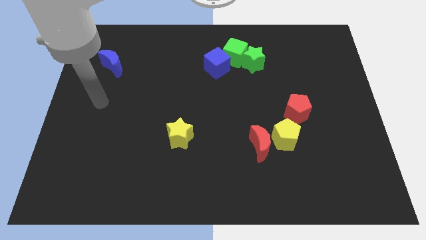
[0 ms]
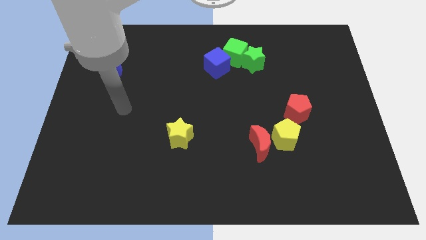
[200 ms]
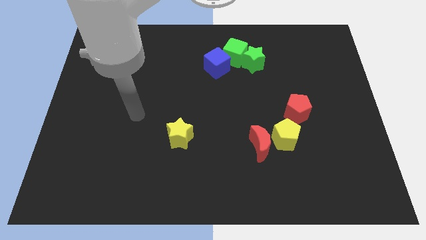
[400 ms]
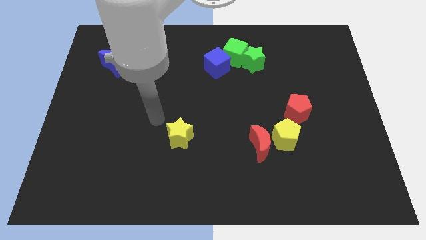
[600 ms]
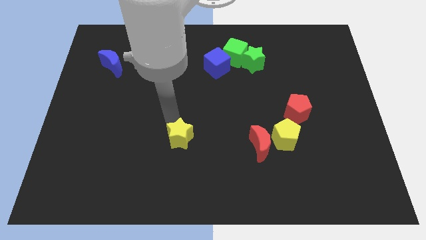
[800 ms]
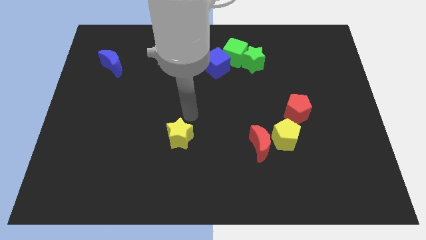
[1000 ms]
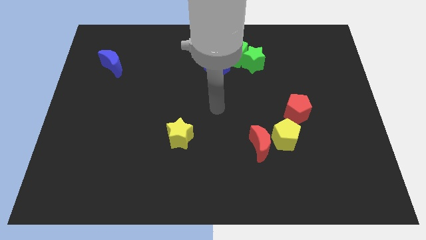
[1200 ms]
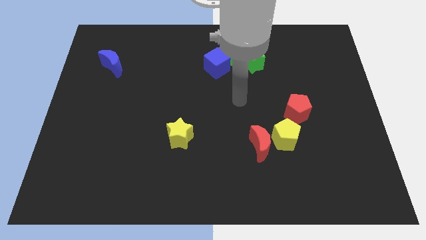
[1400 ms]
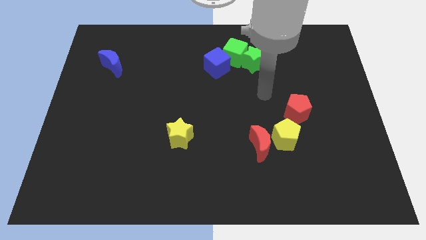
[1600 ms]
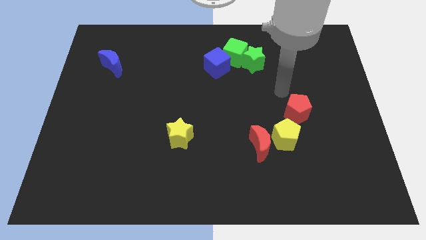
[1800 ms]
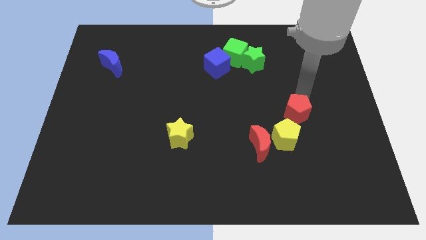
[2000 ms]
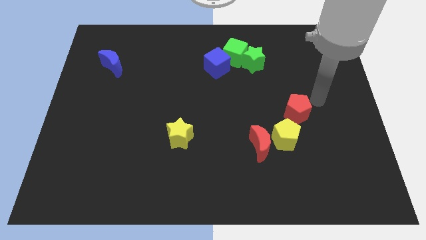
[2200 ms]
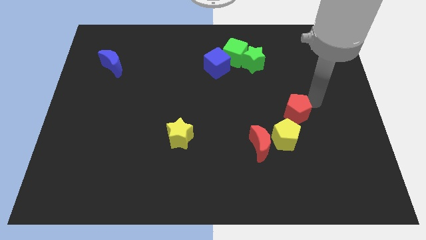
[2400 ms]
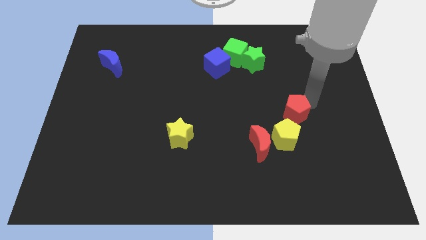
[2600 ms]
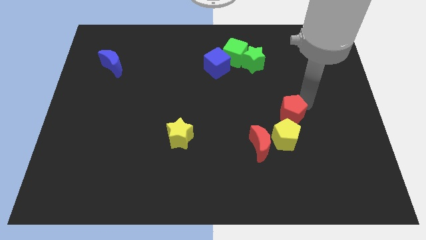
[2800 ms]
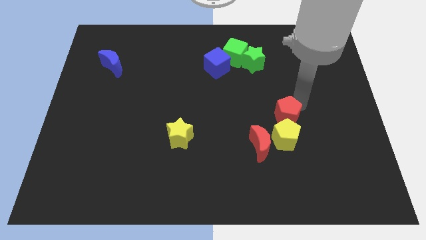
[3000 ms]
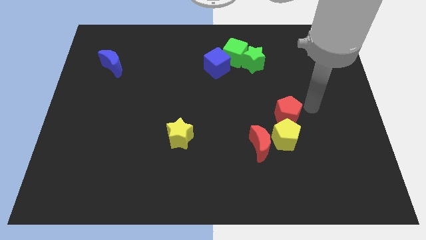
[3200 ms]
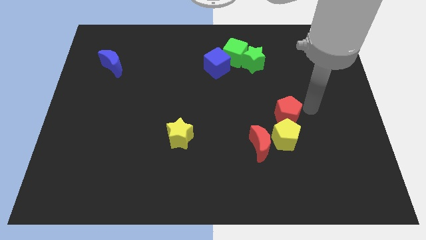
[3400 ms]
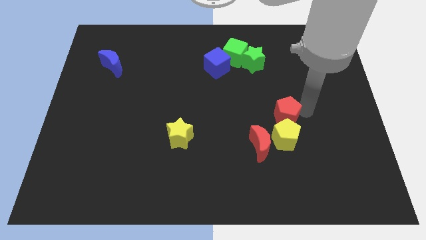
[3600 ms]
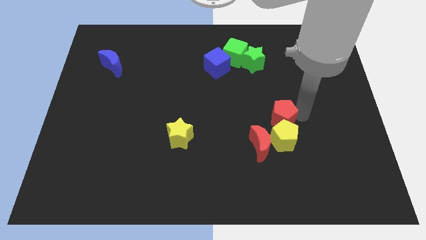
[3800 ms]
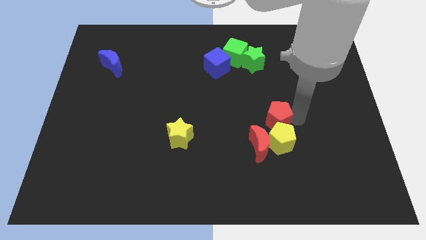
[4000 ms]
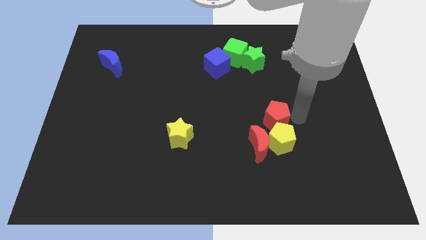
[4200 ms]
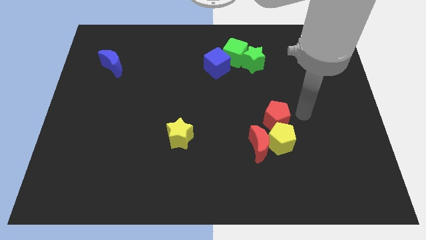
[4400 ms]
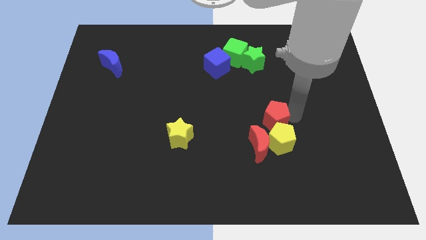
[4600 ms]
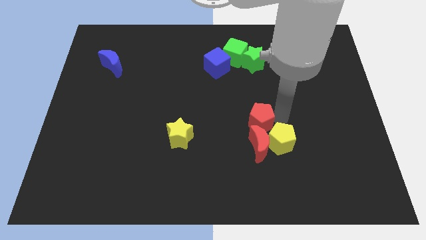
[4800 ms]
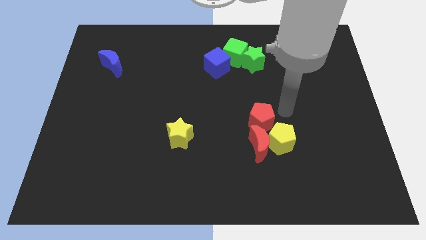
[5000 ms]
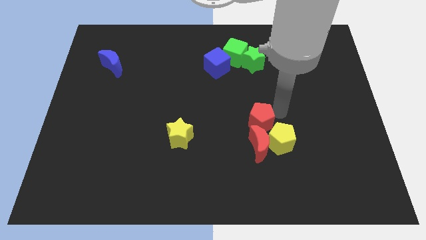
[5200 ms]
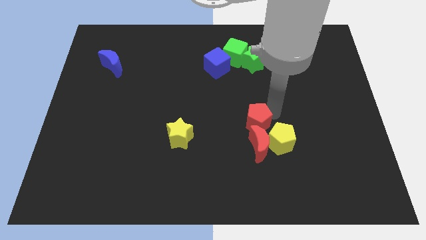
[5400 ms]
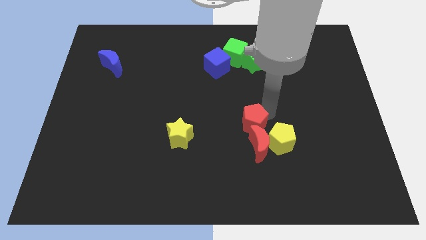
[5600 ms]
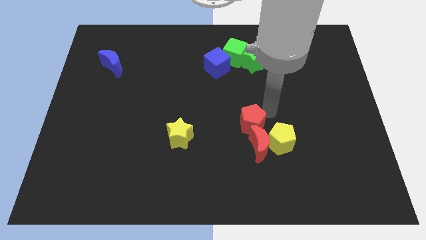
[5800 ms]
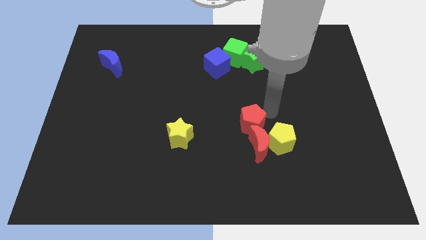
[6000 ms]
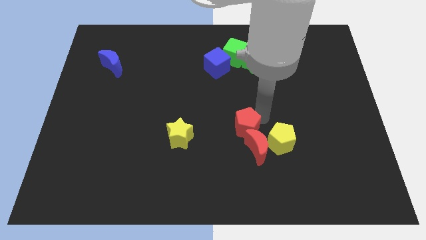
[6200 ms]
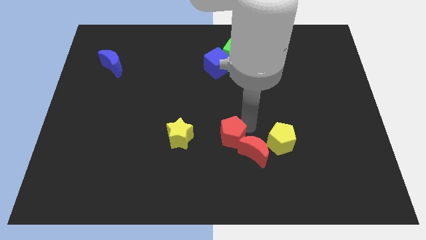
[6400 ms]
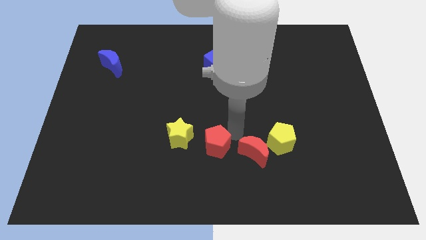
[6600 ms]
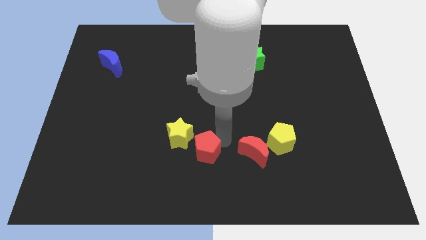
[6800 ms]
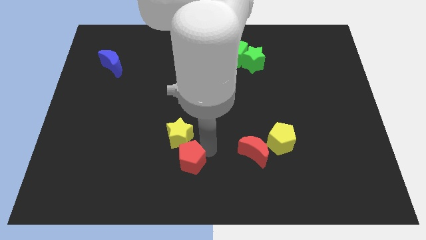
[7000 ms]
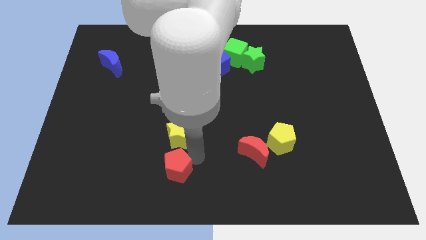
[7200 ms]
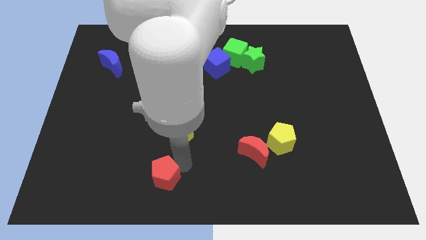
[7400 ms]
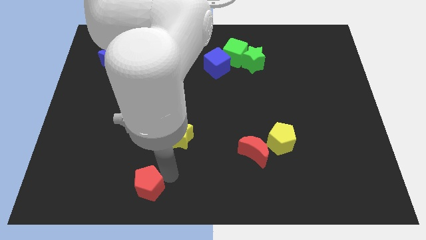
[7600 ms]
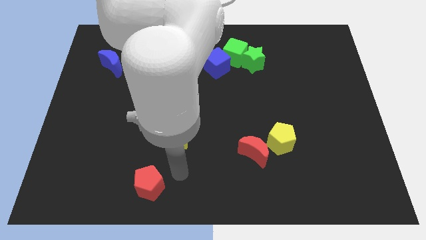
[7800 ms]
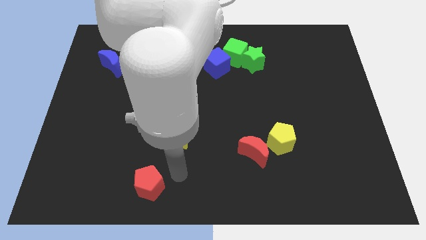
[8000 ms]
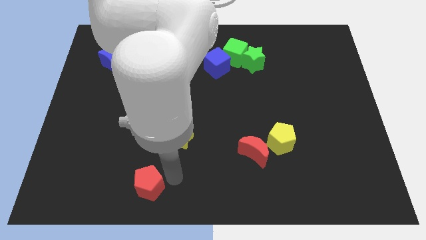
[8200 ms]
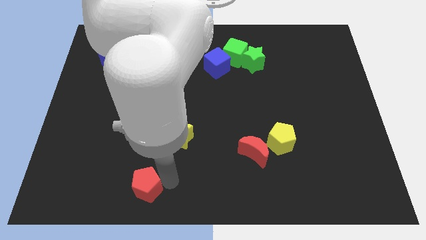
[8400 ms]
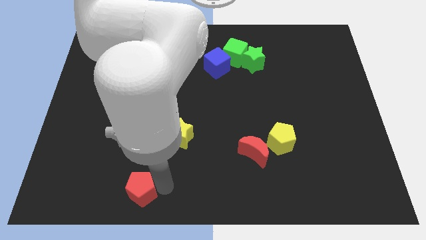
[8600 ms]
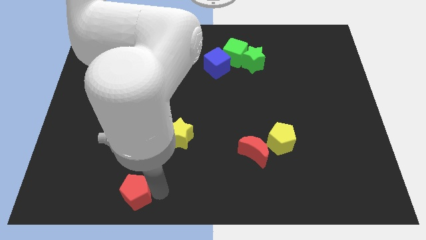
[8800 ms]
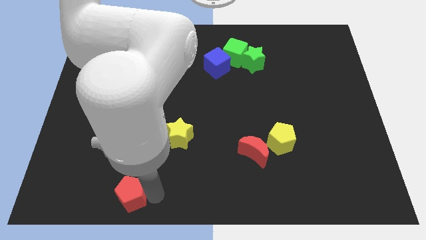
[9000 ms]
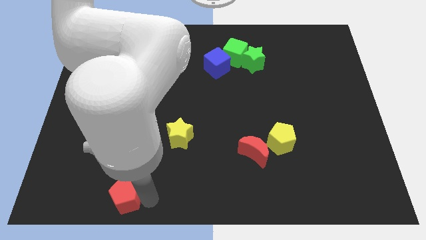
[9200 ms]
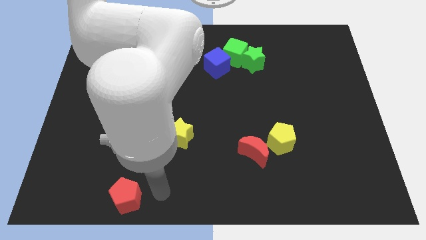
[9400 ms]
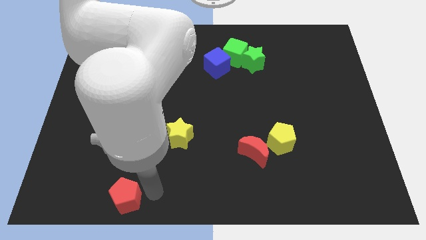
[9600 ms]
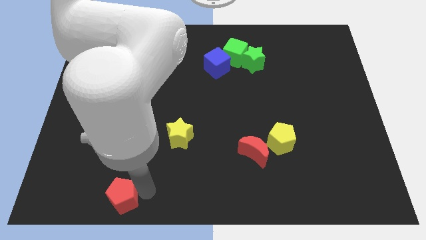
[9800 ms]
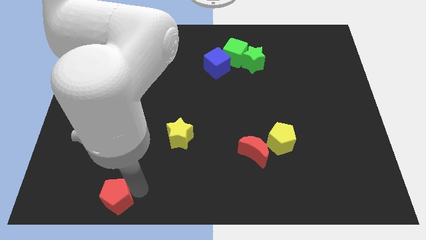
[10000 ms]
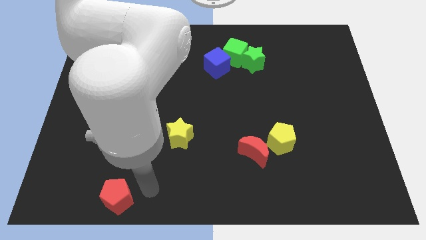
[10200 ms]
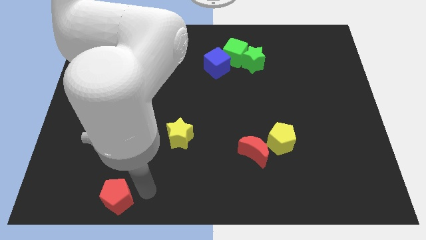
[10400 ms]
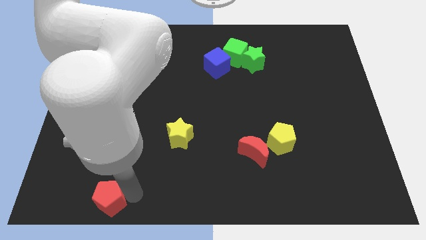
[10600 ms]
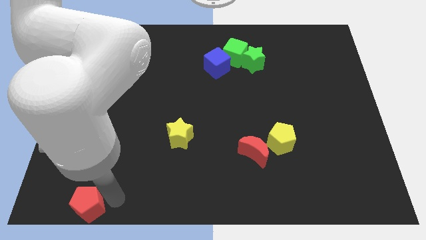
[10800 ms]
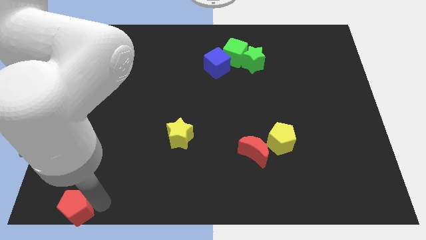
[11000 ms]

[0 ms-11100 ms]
move the red pentagon to the bottom left

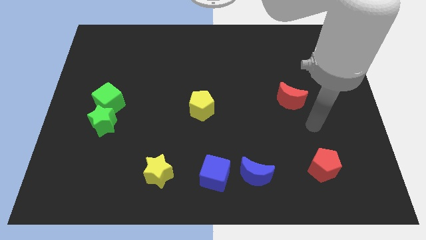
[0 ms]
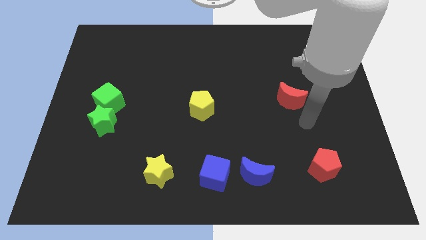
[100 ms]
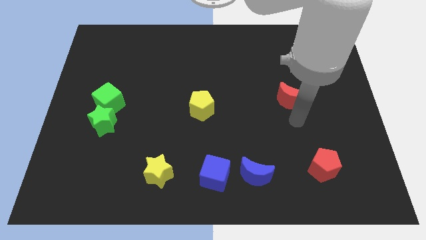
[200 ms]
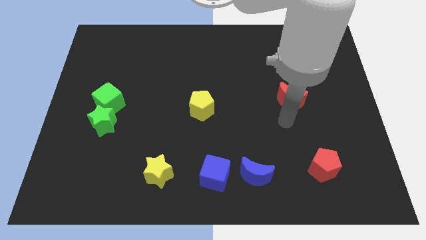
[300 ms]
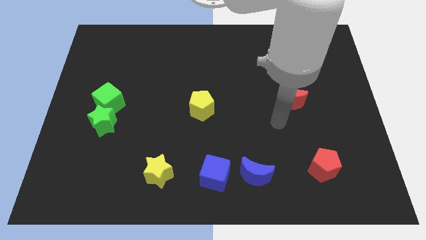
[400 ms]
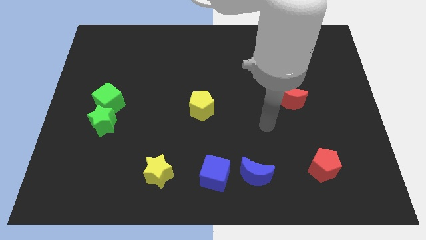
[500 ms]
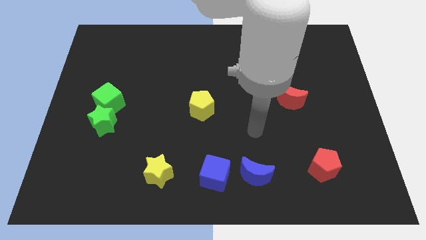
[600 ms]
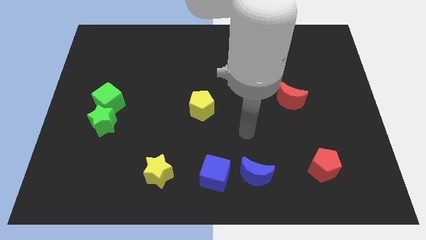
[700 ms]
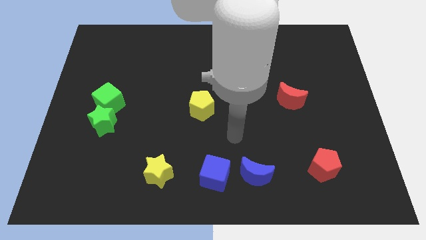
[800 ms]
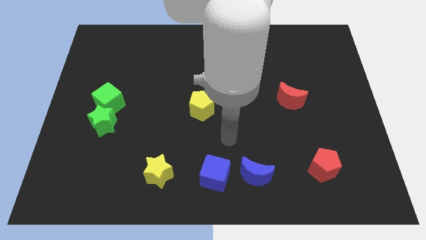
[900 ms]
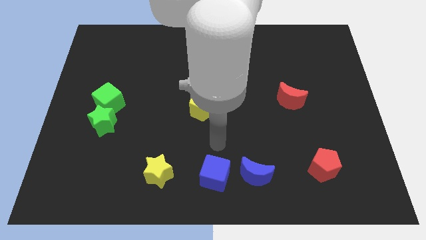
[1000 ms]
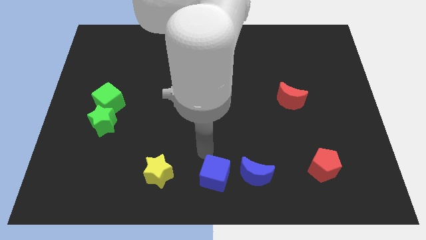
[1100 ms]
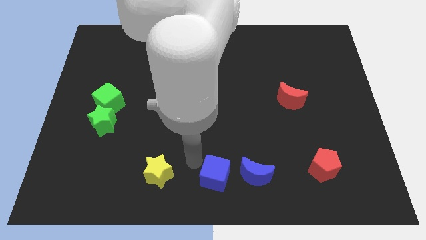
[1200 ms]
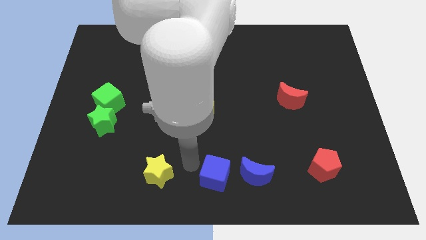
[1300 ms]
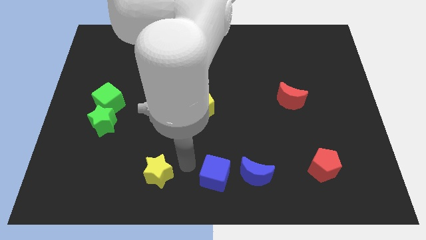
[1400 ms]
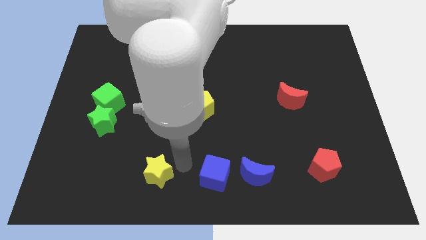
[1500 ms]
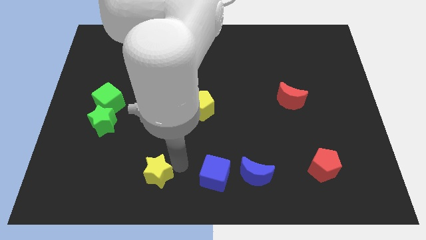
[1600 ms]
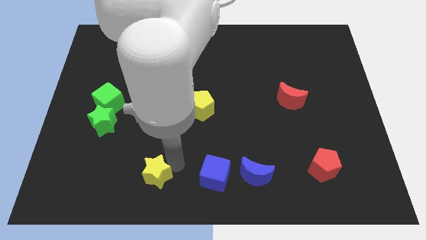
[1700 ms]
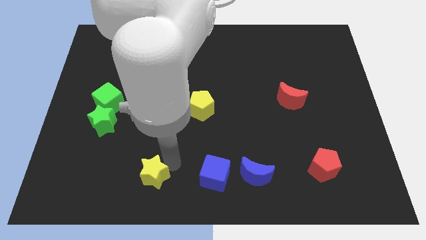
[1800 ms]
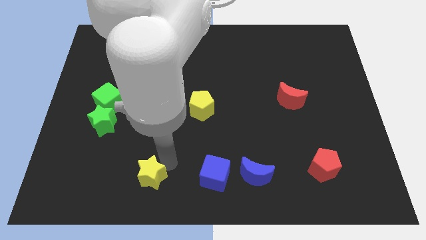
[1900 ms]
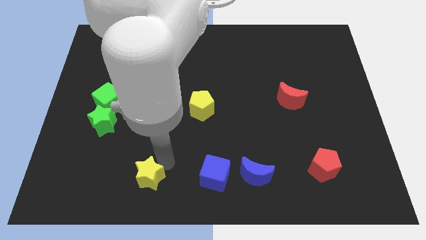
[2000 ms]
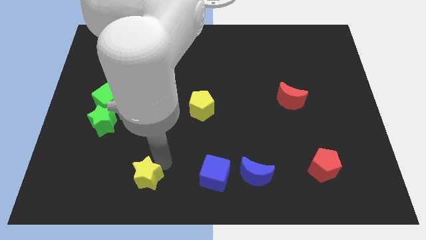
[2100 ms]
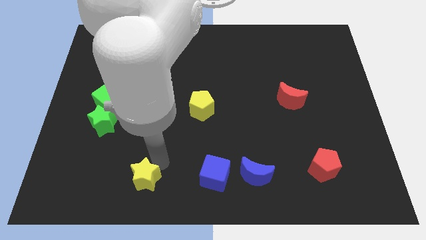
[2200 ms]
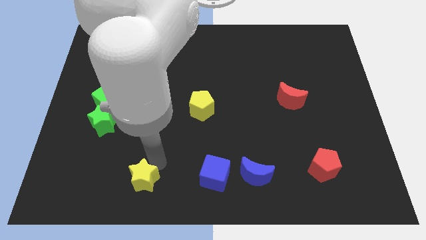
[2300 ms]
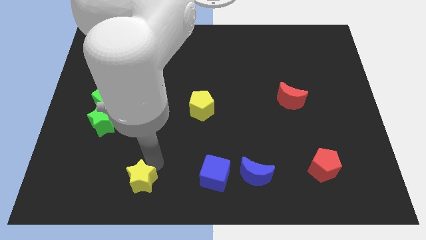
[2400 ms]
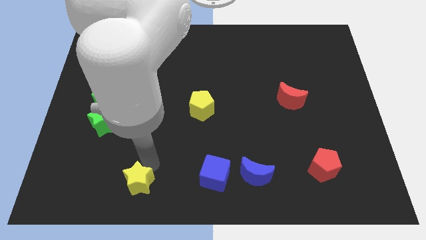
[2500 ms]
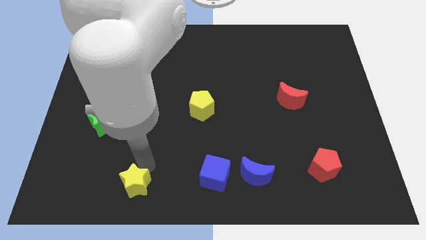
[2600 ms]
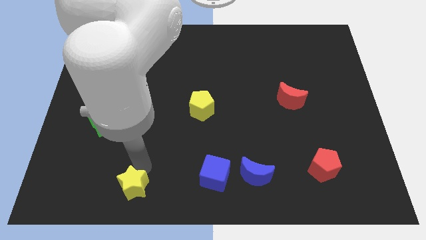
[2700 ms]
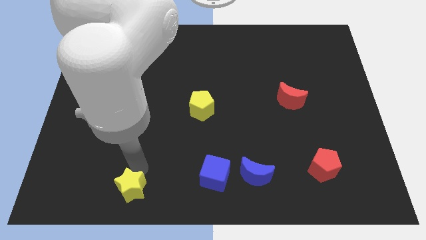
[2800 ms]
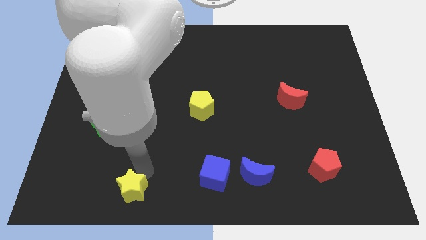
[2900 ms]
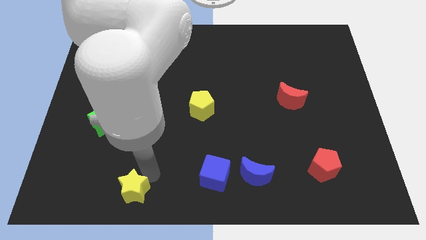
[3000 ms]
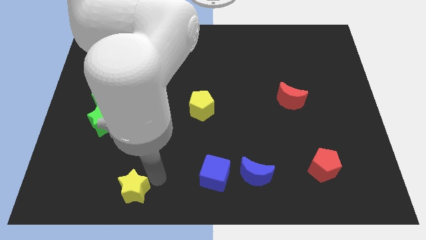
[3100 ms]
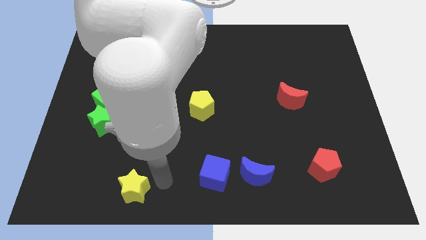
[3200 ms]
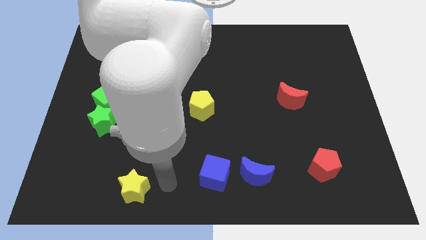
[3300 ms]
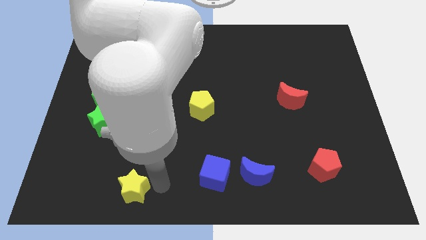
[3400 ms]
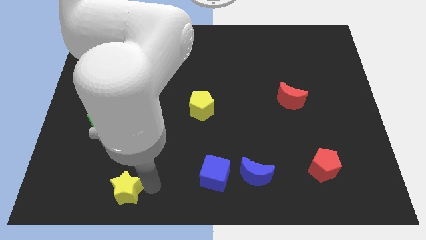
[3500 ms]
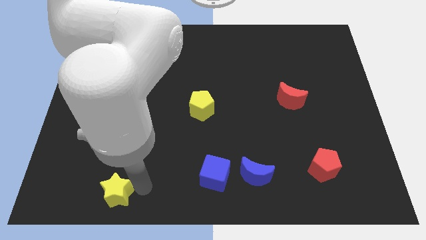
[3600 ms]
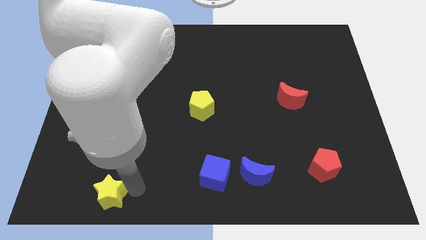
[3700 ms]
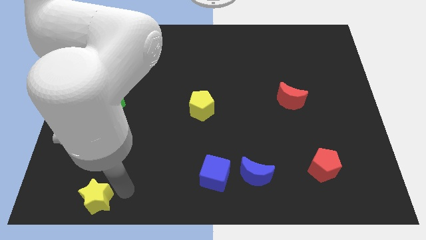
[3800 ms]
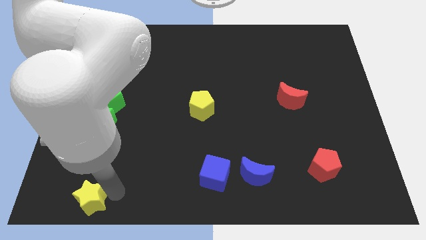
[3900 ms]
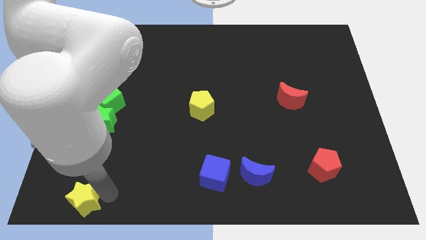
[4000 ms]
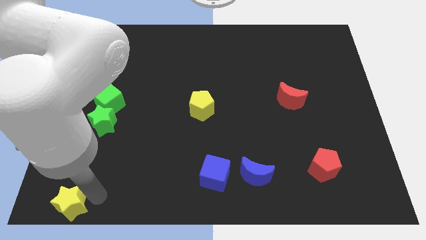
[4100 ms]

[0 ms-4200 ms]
slide the yellow star to the lower left corner
